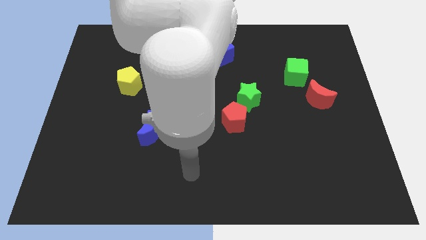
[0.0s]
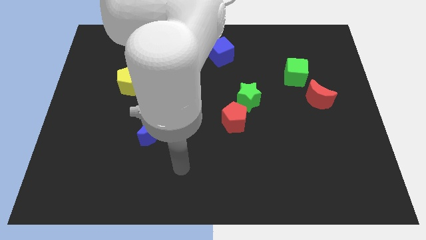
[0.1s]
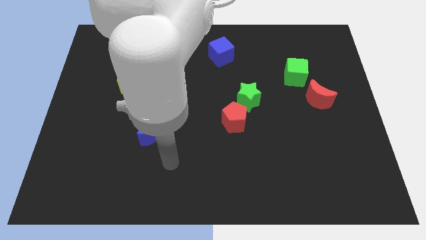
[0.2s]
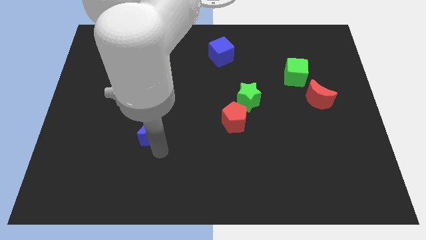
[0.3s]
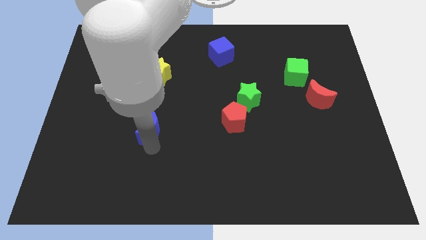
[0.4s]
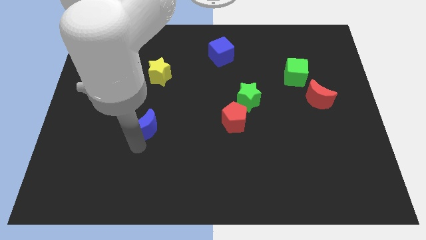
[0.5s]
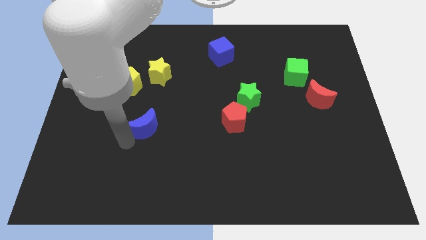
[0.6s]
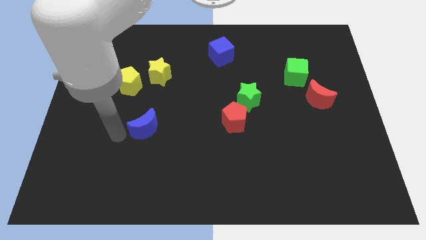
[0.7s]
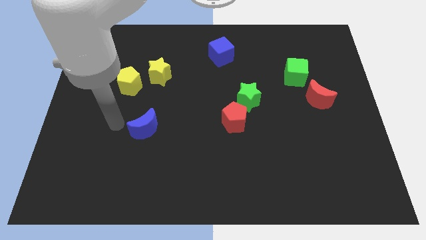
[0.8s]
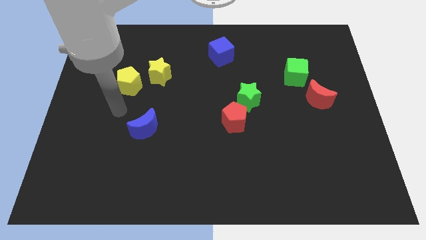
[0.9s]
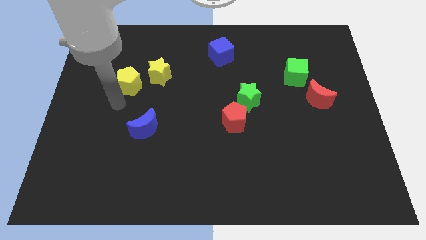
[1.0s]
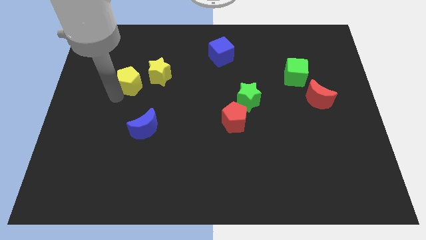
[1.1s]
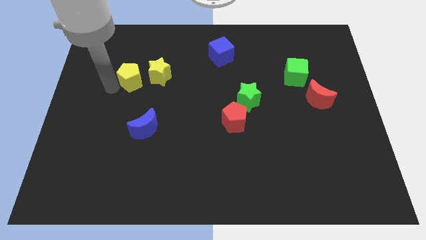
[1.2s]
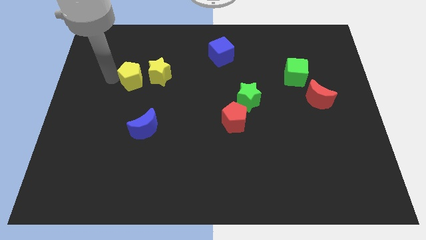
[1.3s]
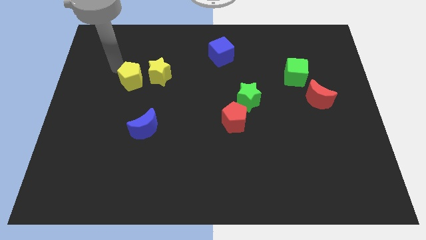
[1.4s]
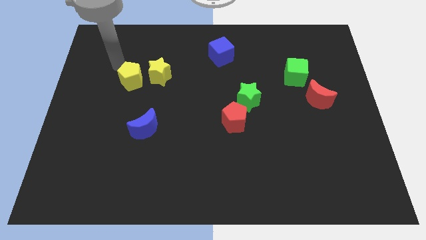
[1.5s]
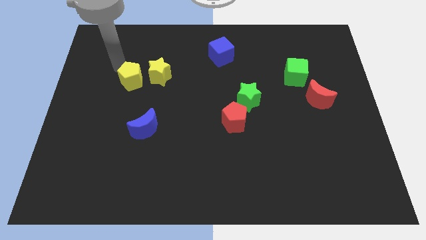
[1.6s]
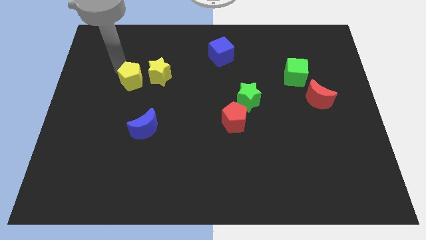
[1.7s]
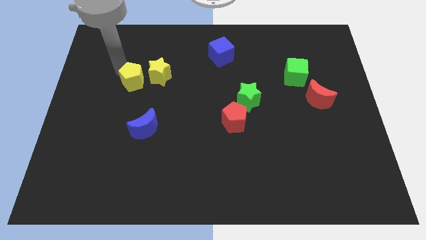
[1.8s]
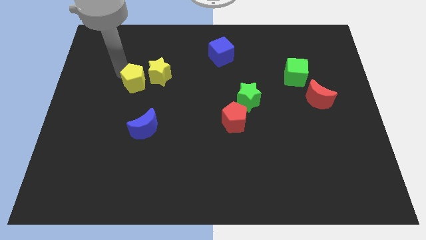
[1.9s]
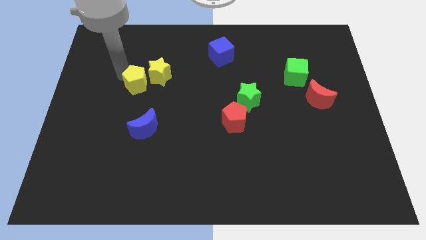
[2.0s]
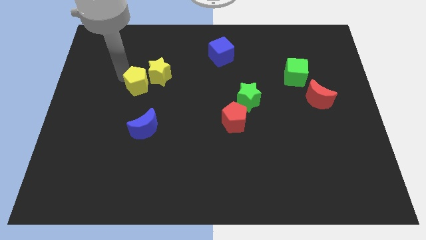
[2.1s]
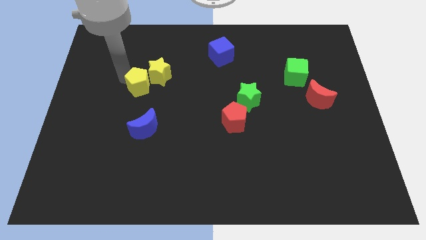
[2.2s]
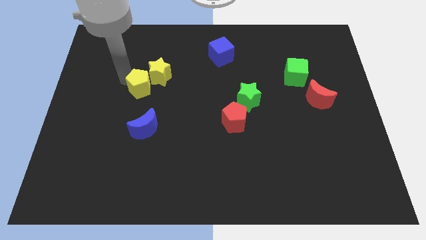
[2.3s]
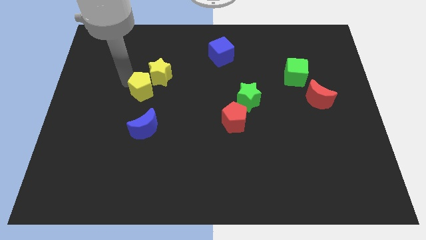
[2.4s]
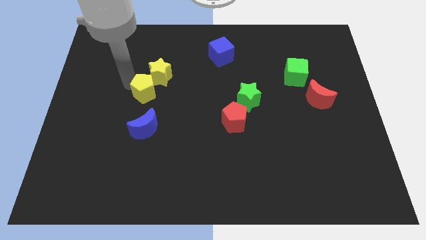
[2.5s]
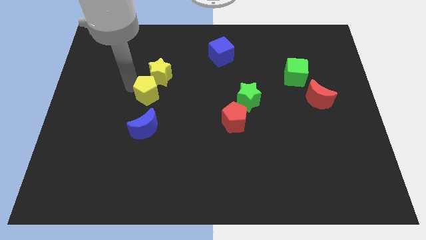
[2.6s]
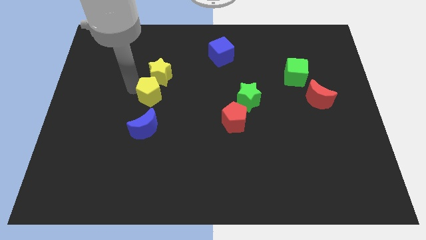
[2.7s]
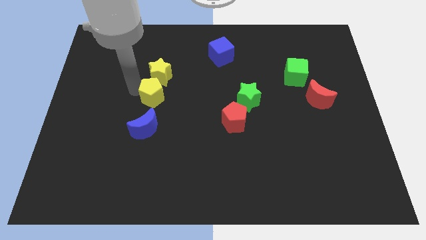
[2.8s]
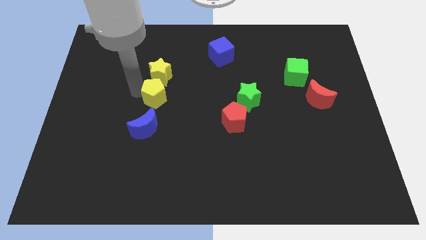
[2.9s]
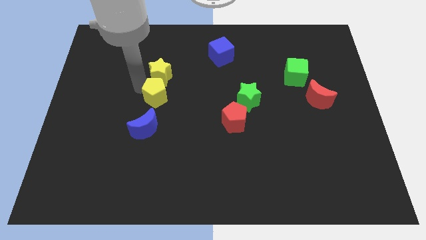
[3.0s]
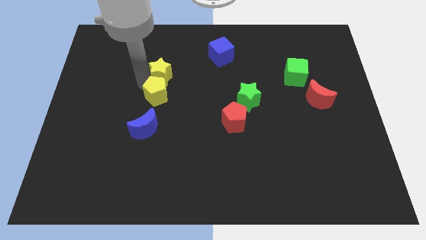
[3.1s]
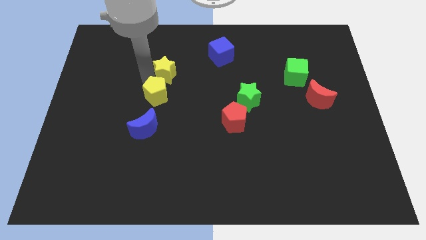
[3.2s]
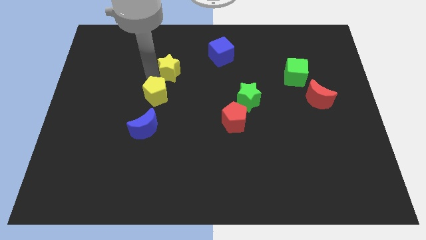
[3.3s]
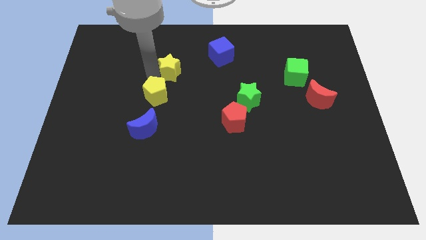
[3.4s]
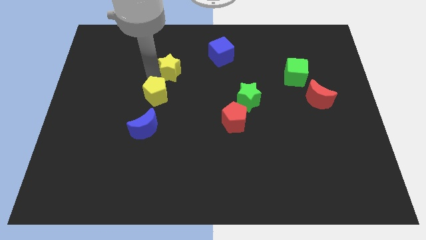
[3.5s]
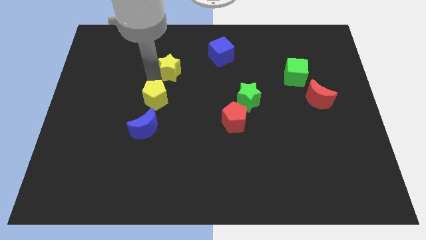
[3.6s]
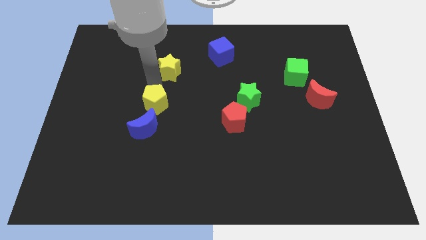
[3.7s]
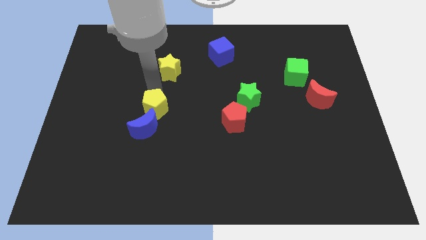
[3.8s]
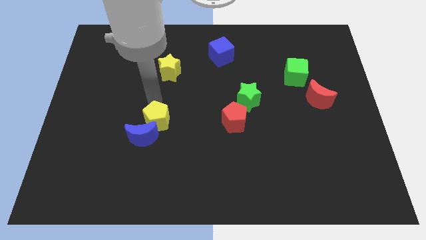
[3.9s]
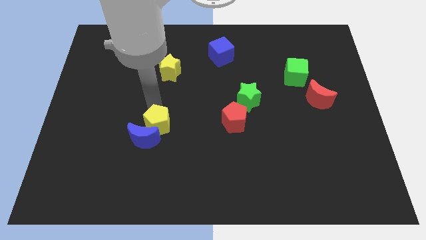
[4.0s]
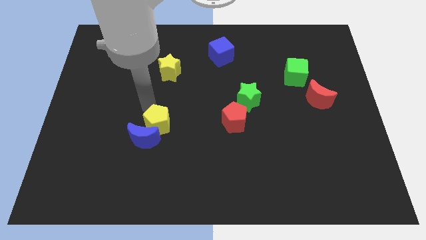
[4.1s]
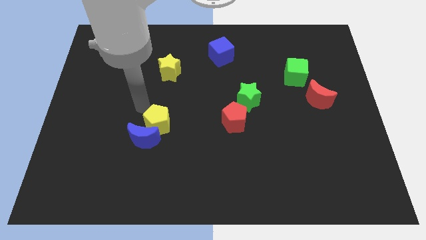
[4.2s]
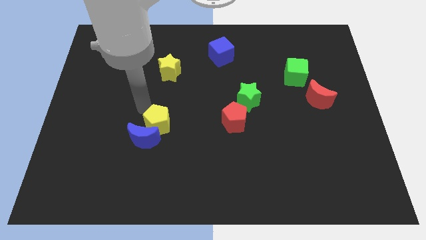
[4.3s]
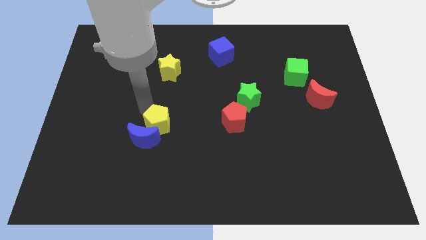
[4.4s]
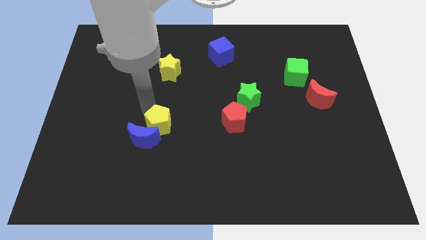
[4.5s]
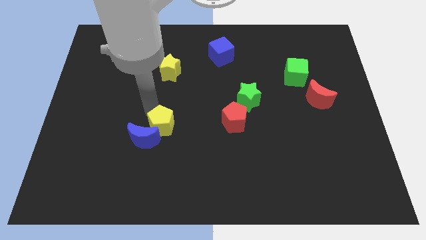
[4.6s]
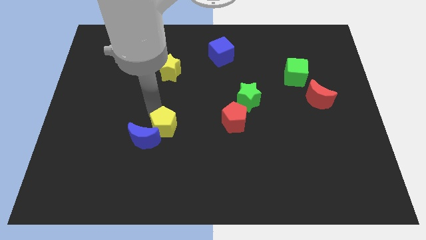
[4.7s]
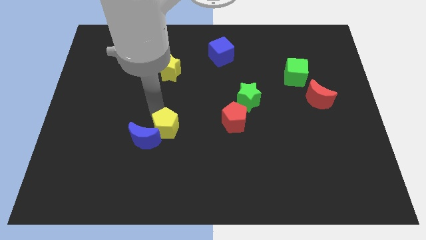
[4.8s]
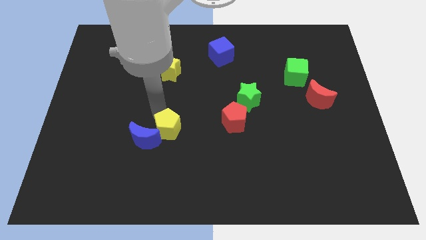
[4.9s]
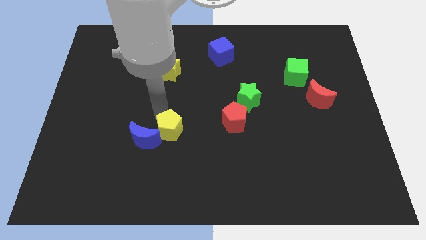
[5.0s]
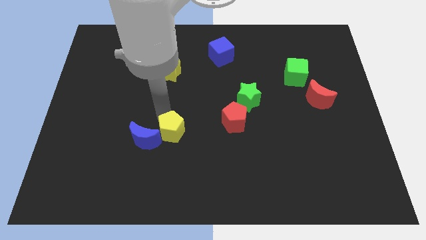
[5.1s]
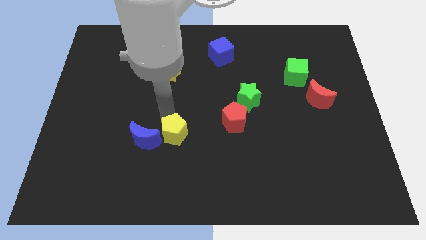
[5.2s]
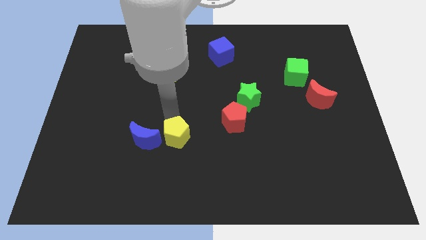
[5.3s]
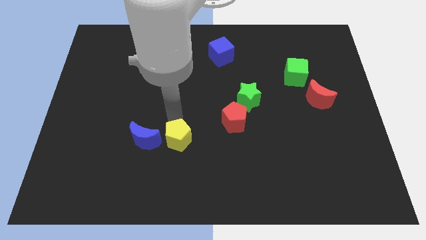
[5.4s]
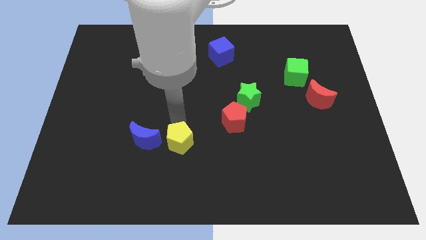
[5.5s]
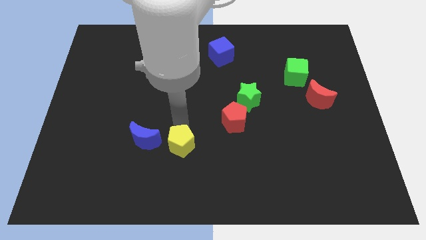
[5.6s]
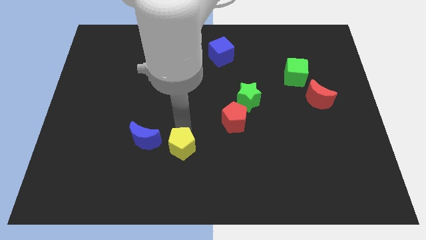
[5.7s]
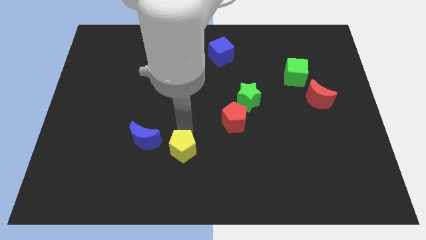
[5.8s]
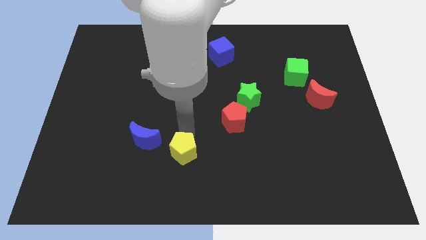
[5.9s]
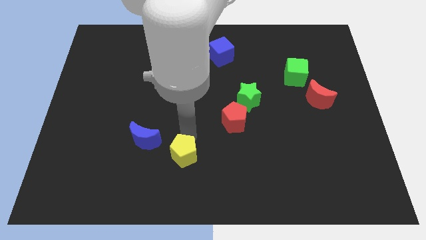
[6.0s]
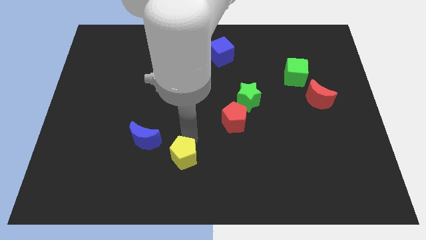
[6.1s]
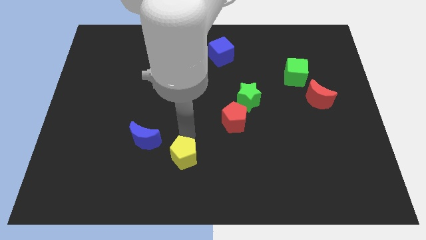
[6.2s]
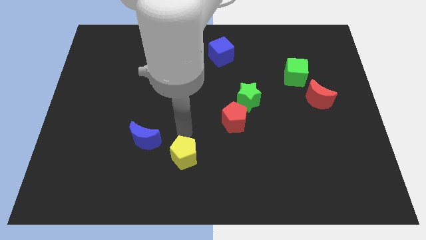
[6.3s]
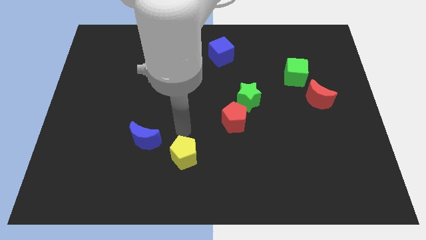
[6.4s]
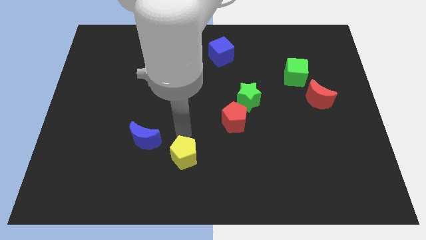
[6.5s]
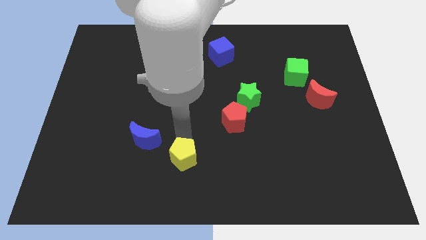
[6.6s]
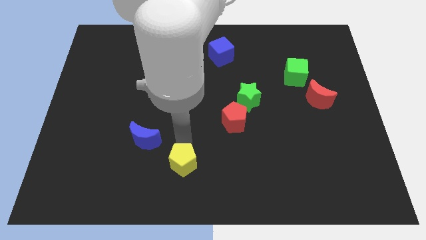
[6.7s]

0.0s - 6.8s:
move the yellow pentagon to the bottom side
